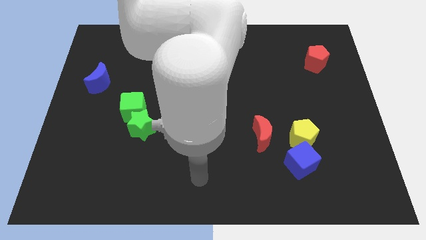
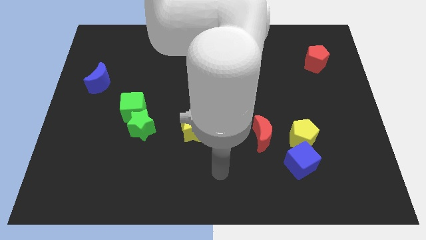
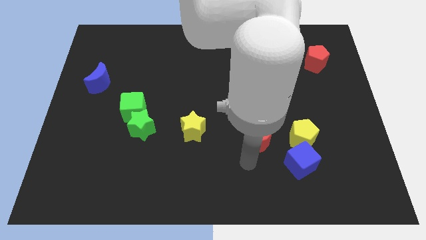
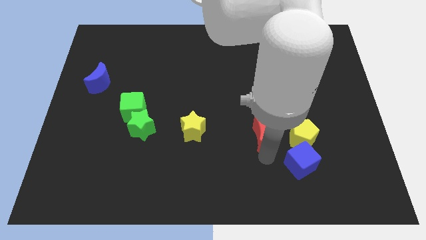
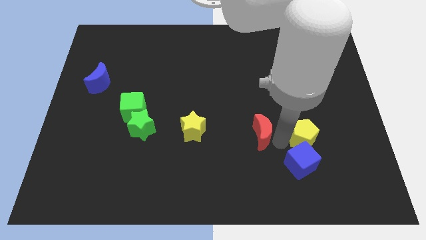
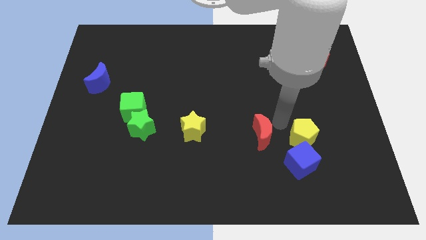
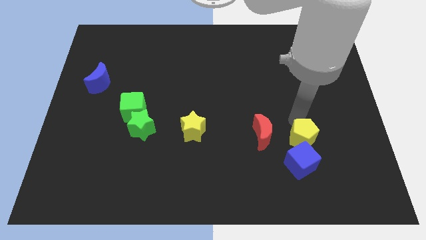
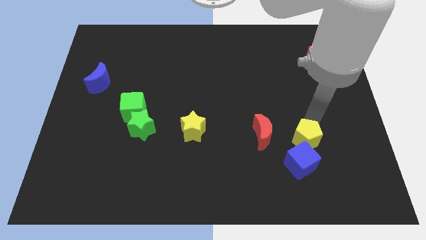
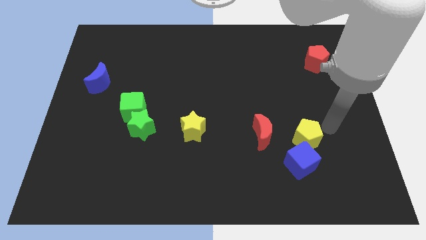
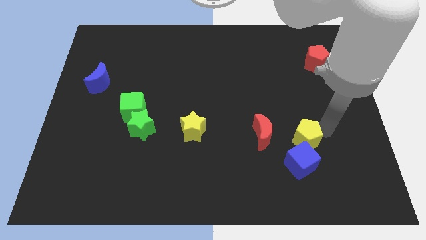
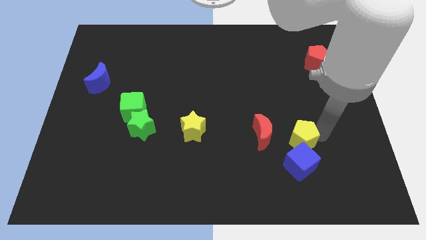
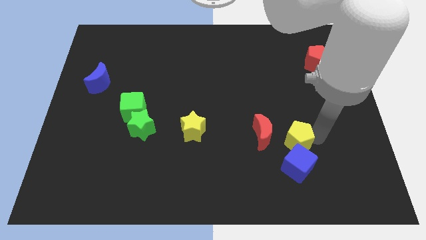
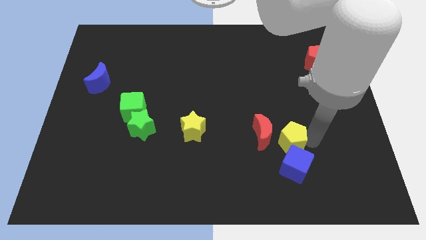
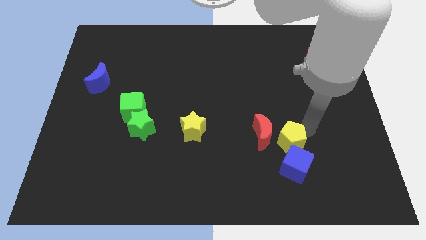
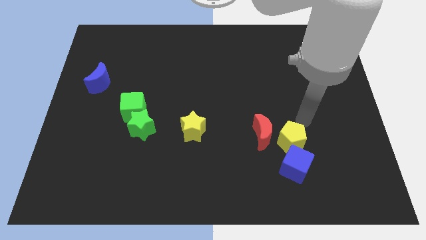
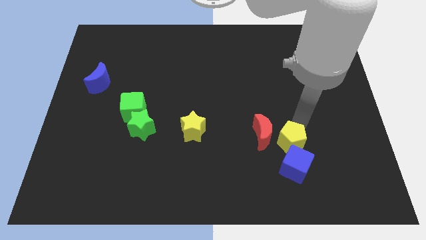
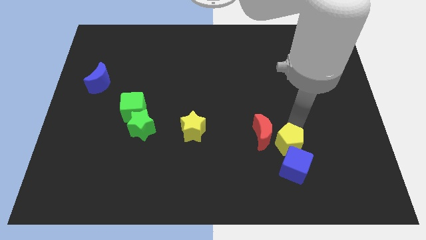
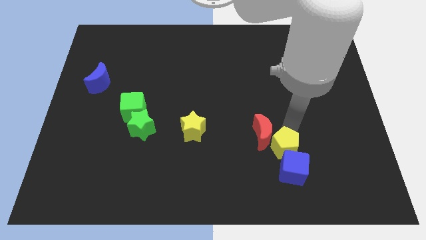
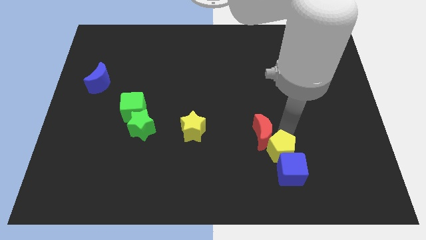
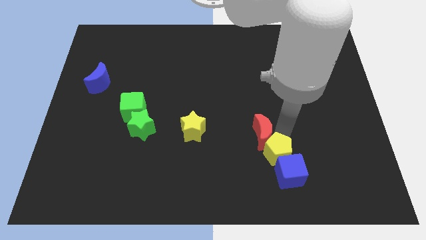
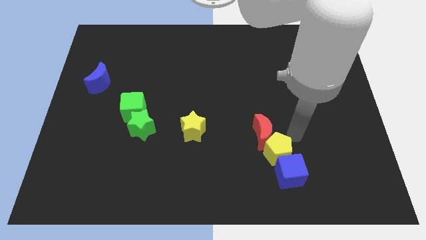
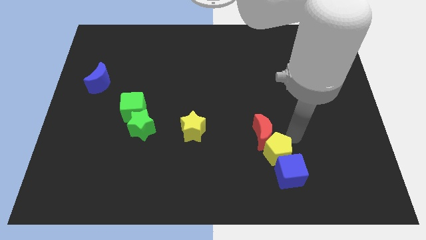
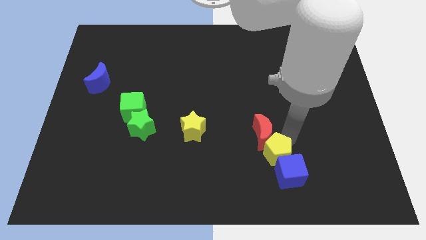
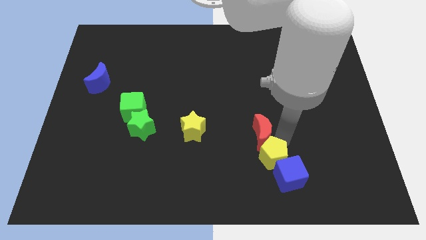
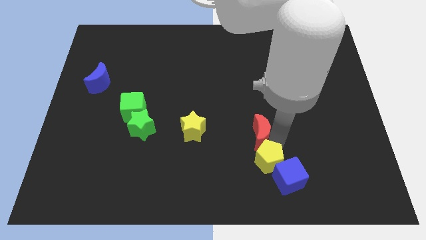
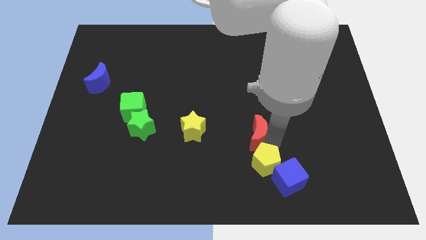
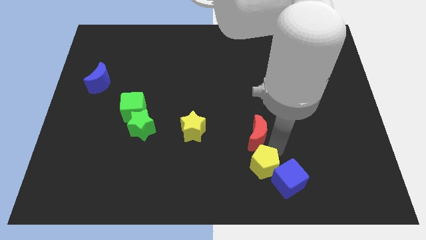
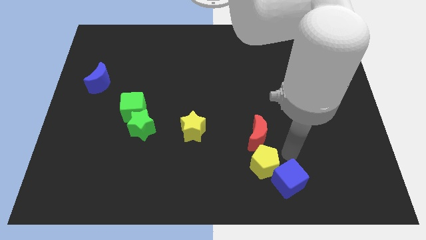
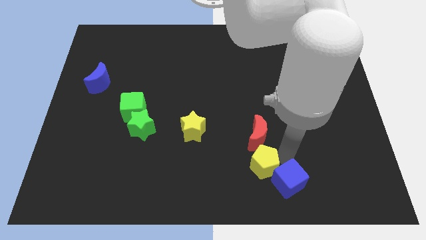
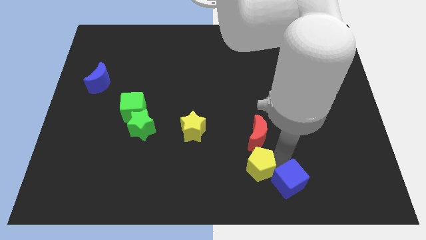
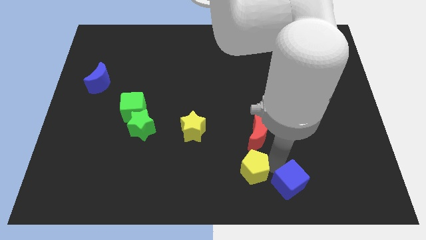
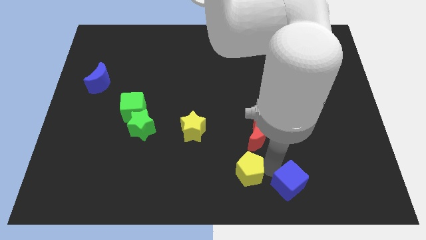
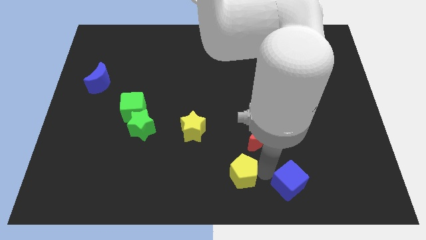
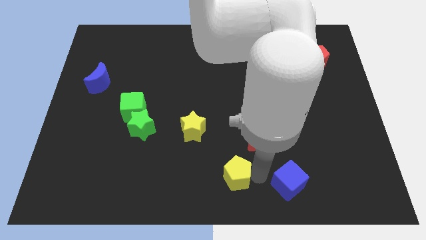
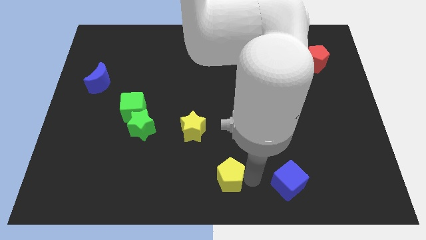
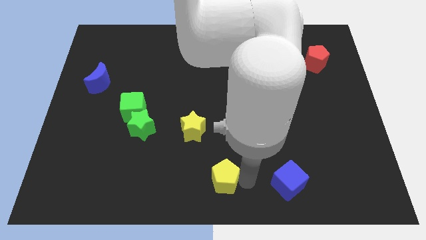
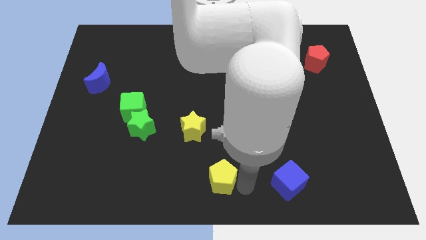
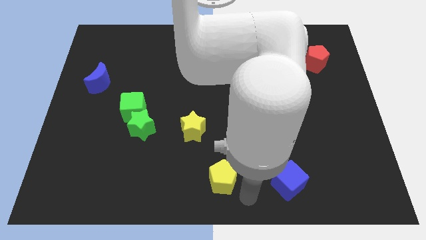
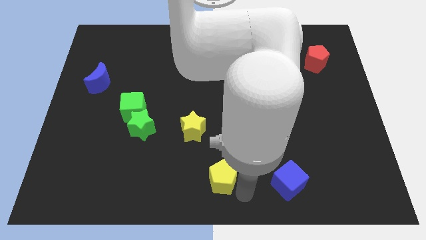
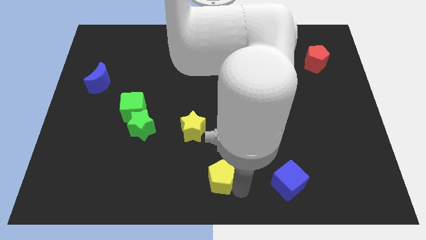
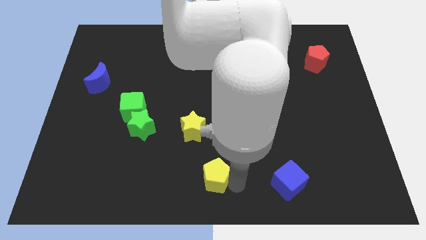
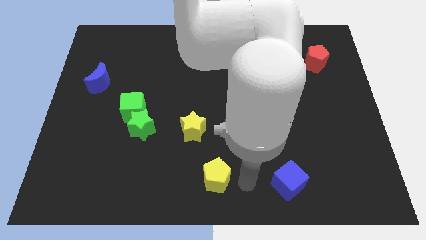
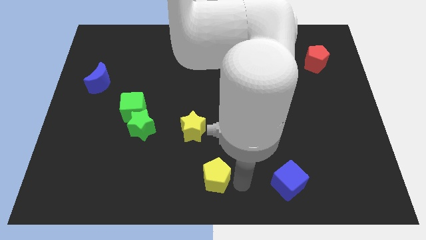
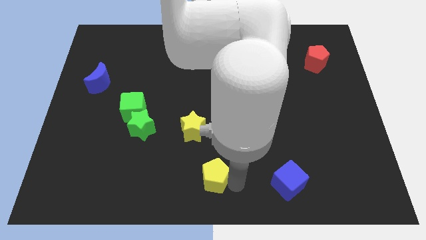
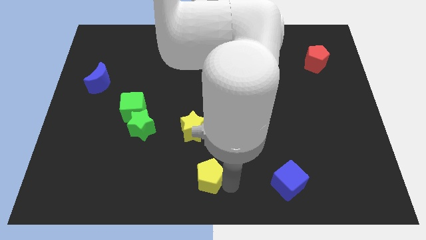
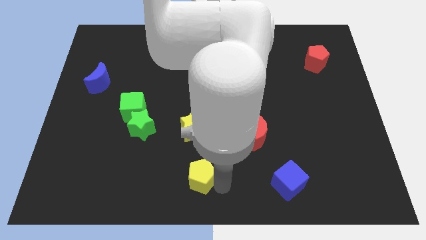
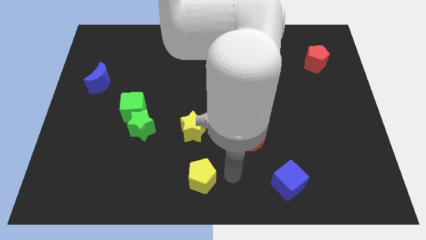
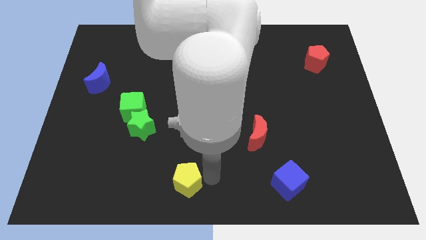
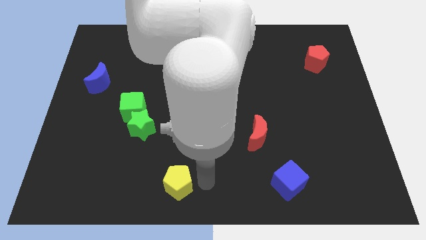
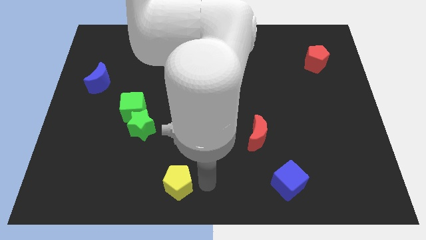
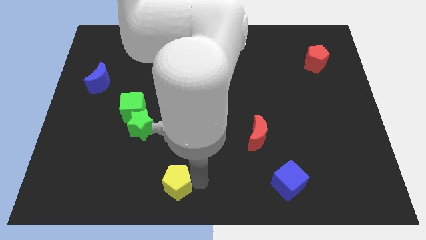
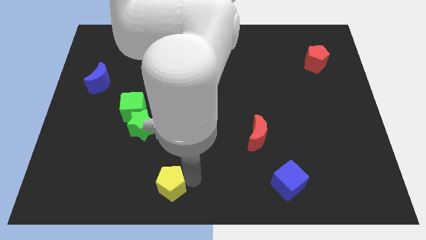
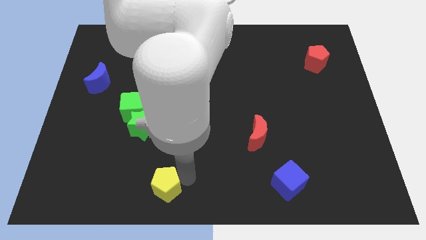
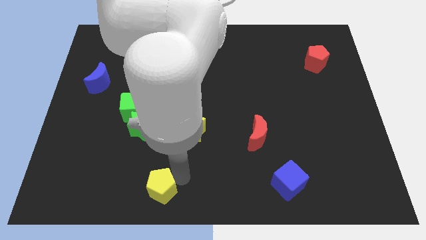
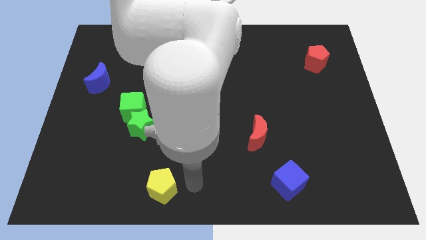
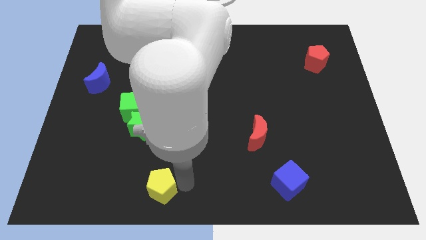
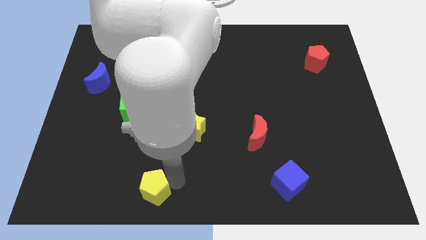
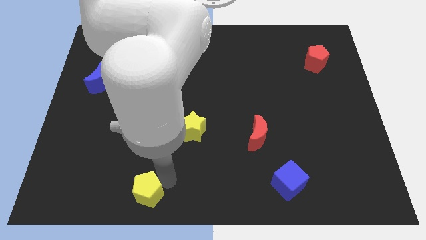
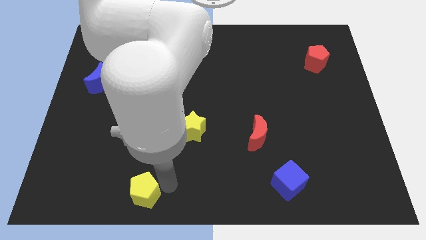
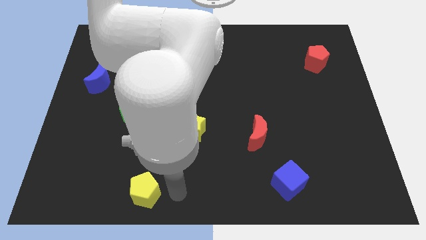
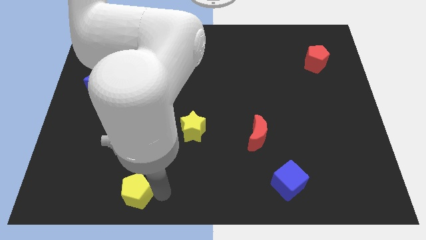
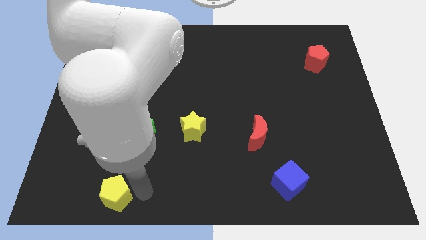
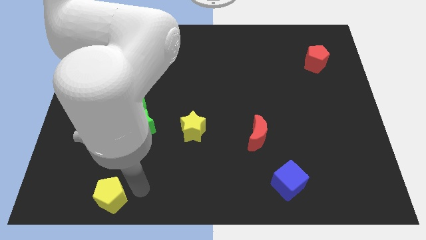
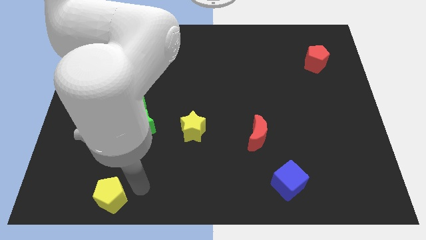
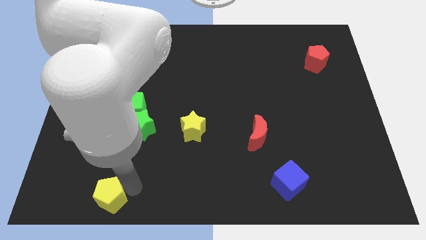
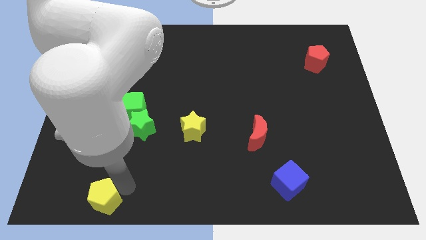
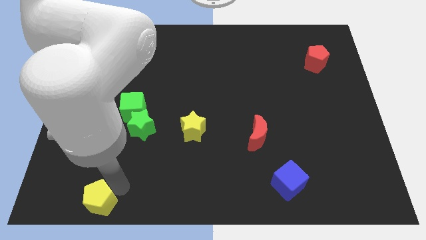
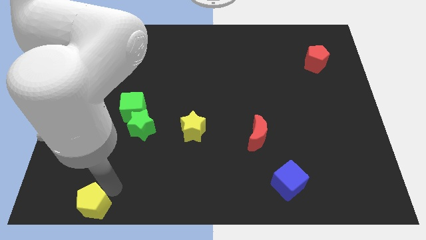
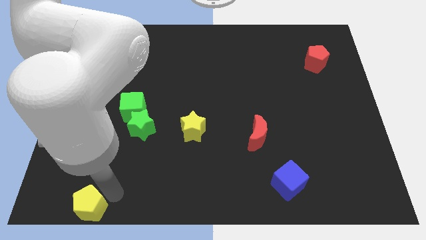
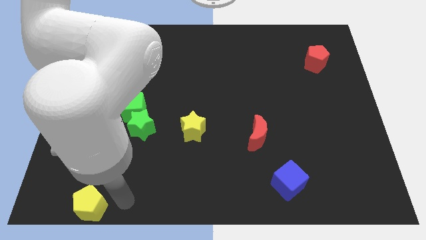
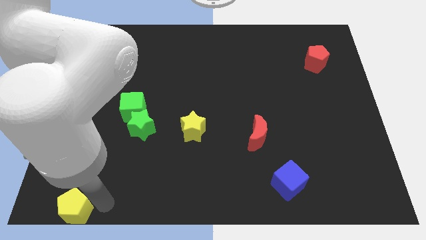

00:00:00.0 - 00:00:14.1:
put the yellow pentagon to the lower left corner
